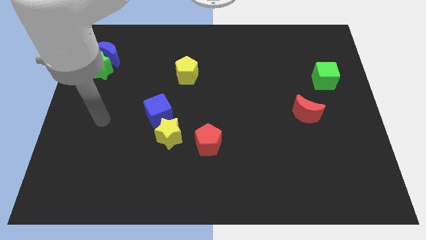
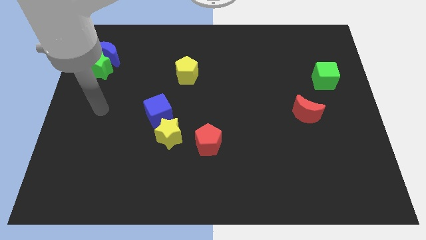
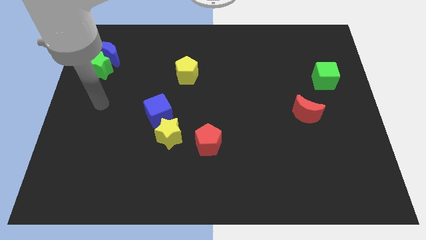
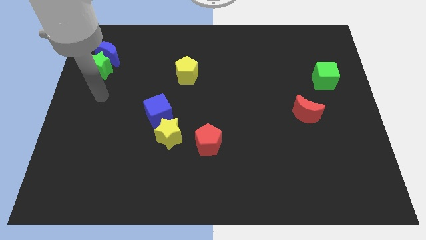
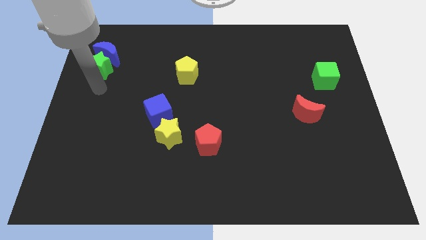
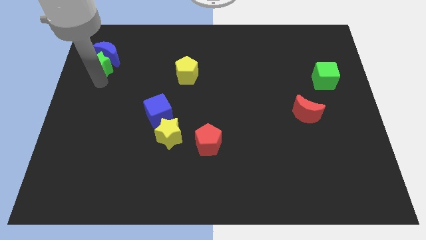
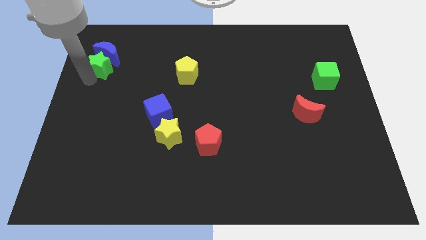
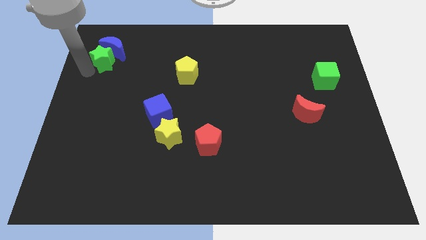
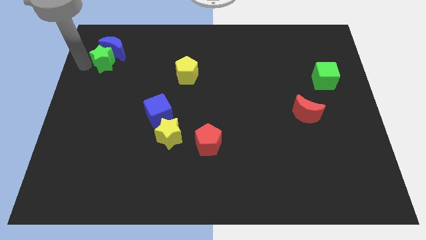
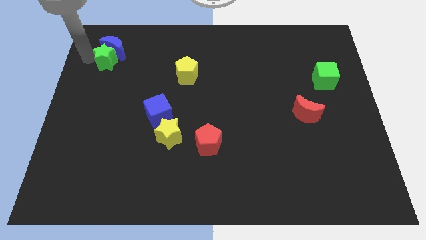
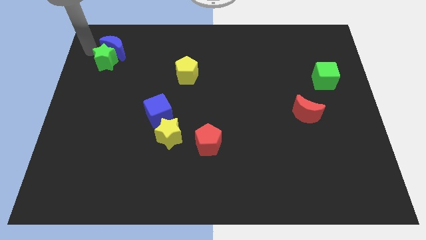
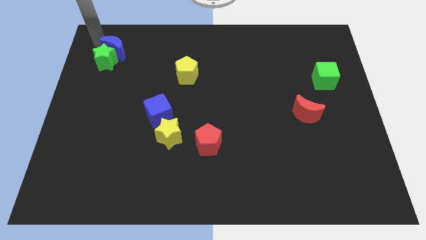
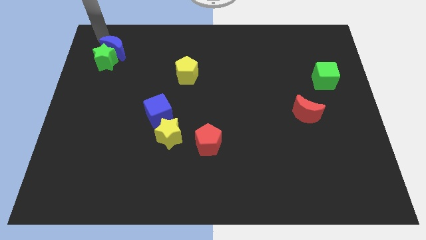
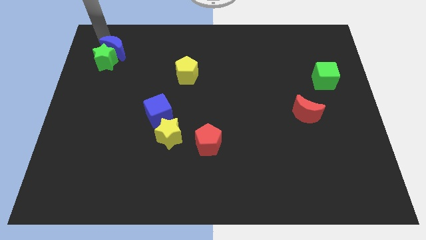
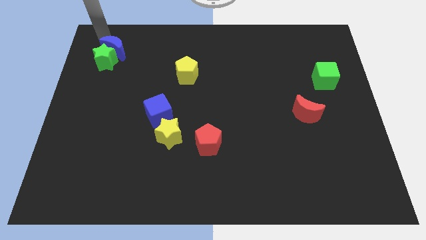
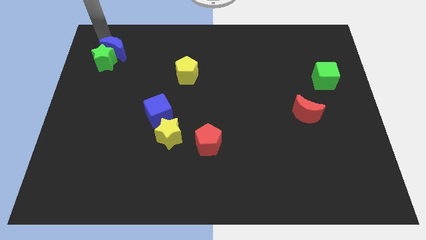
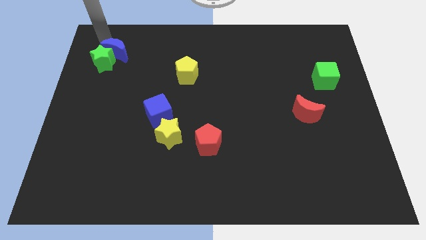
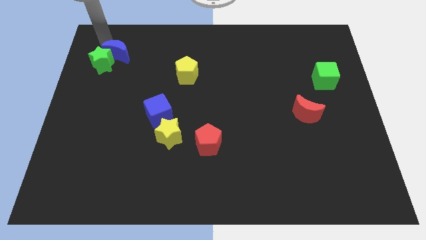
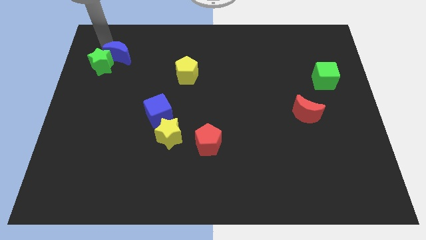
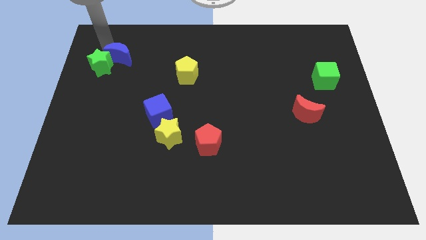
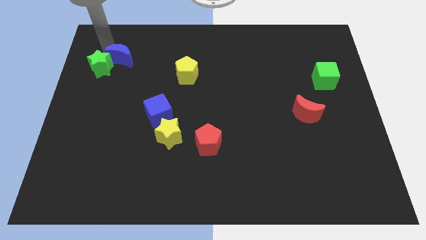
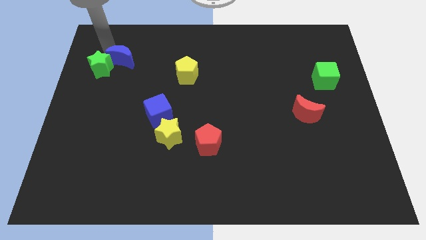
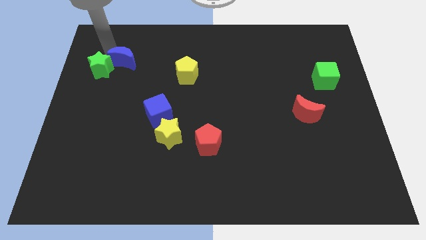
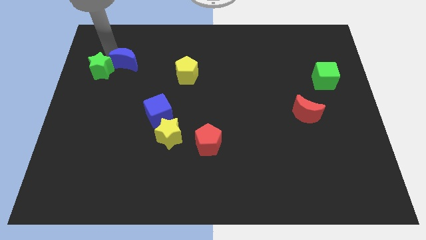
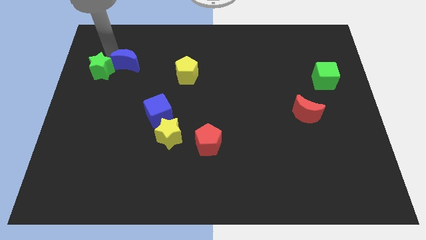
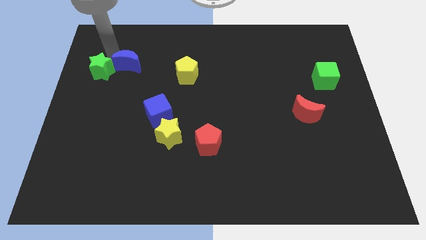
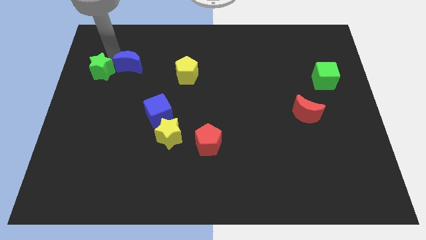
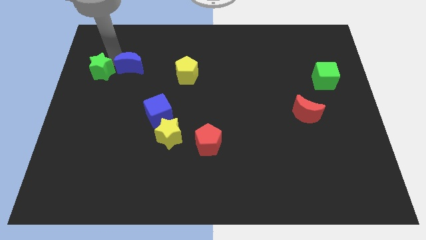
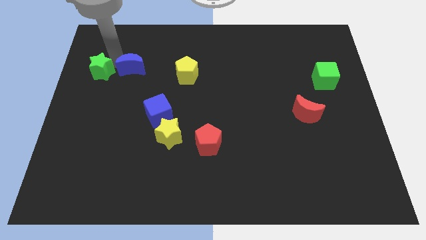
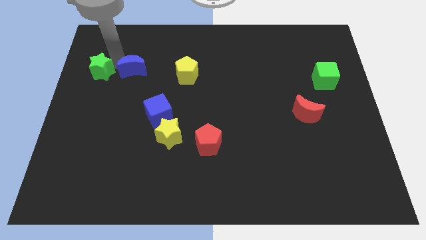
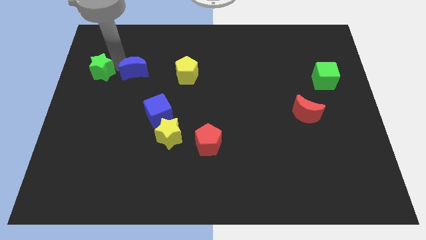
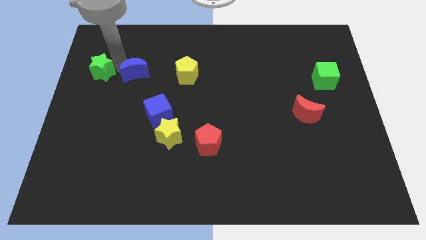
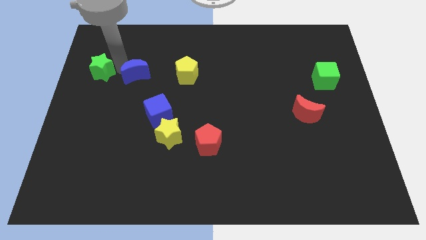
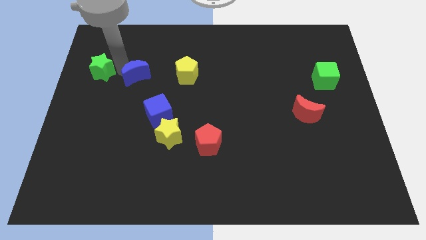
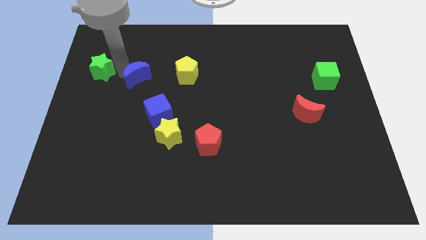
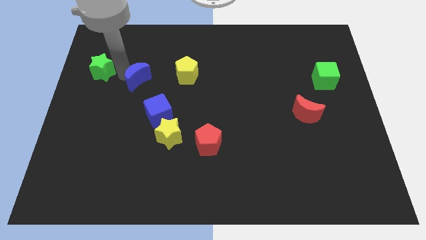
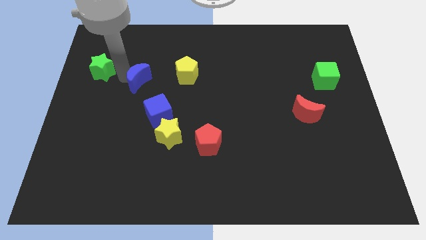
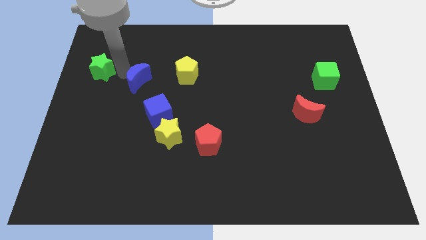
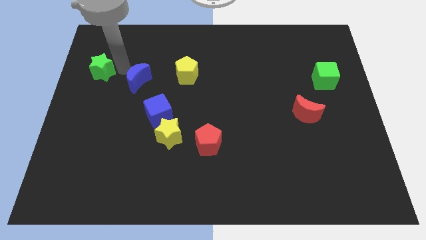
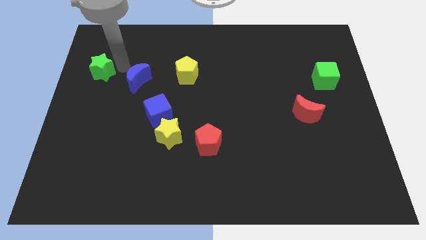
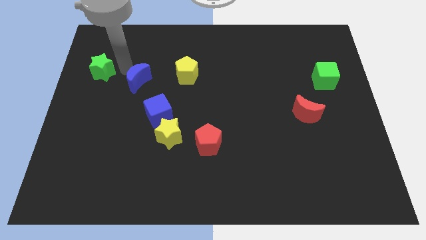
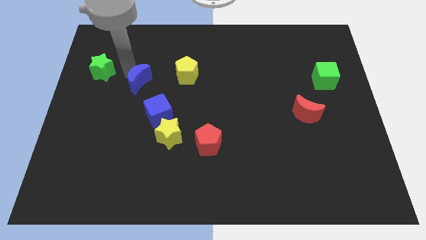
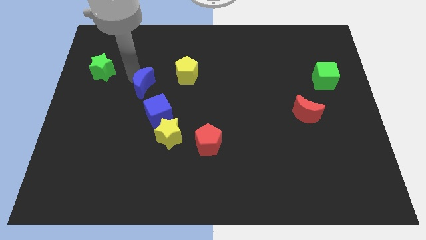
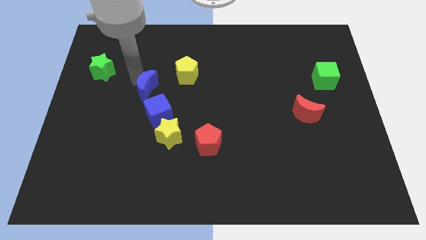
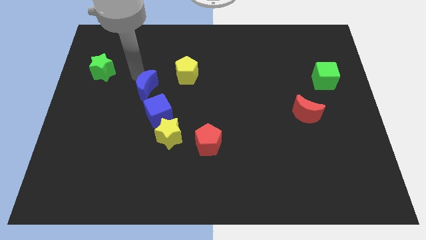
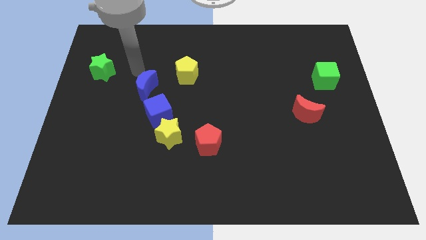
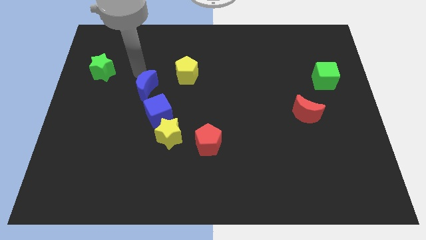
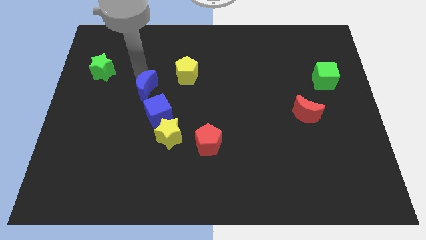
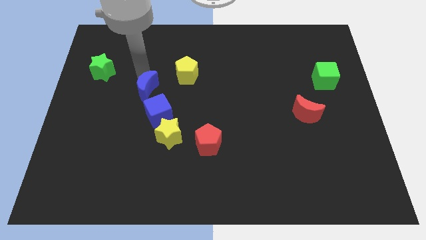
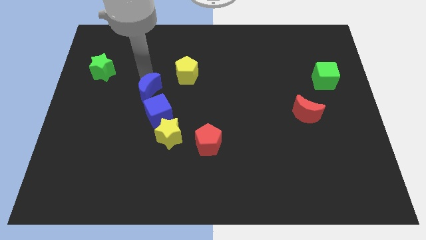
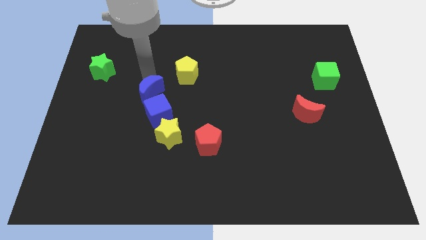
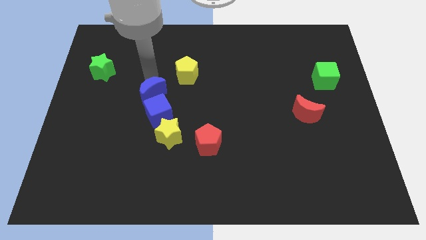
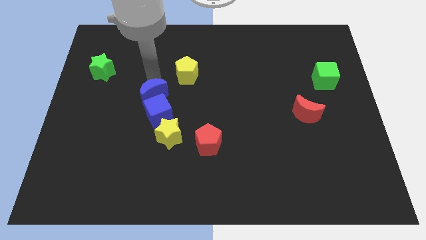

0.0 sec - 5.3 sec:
move the blue moon to the blue cube

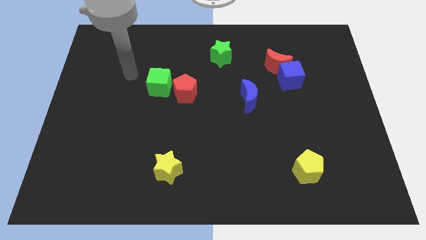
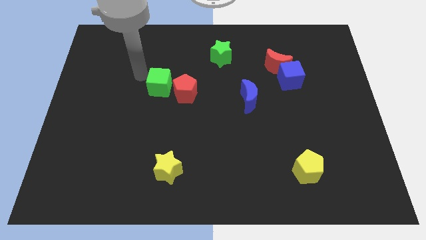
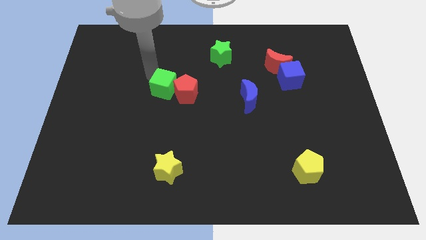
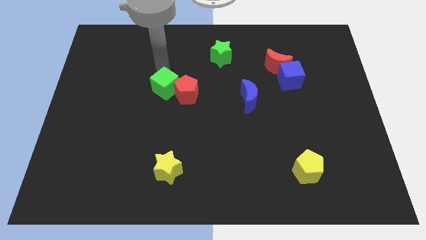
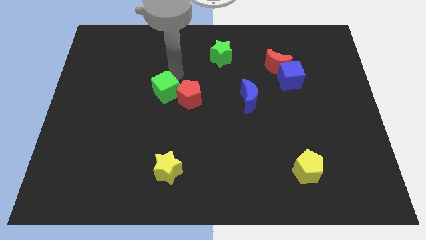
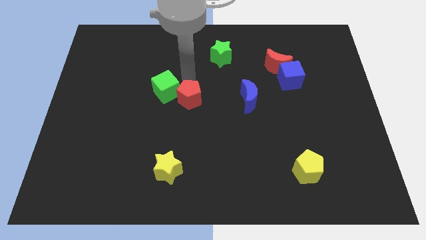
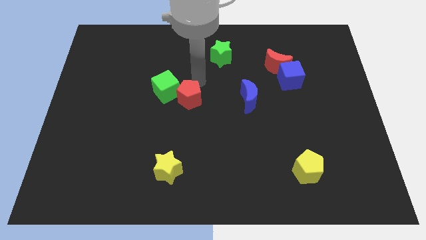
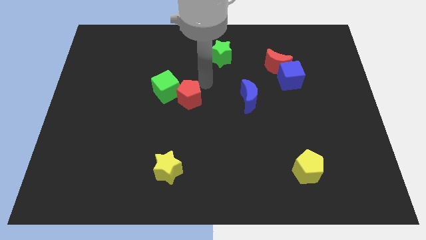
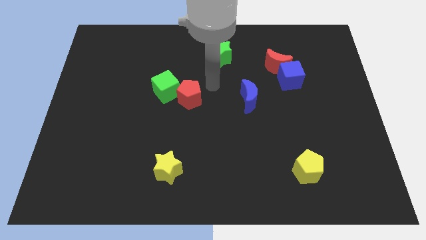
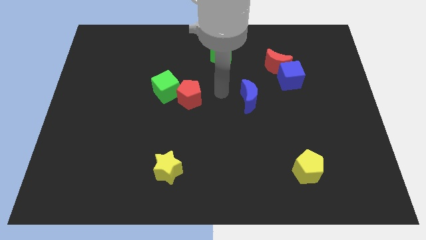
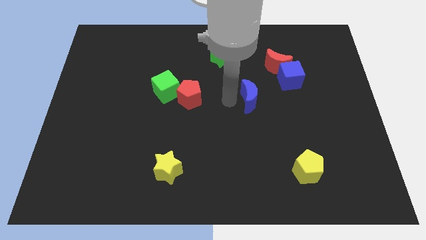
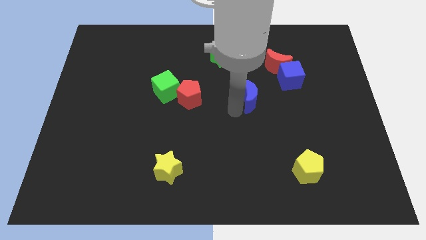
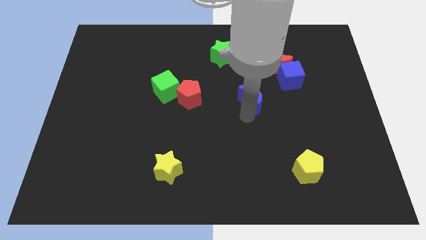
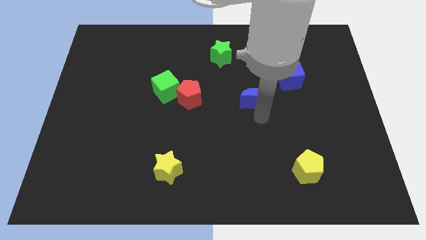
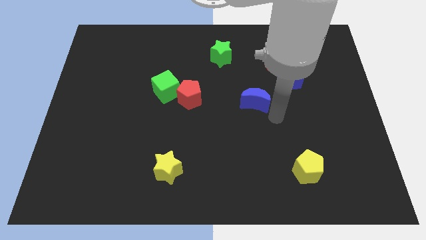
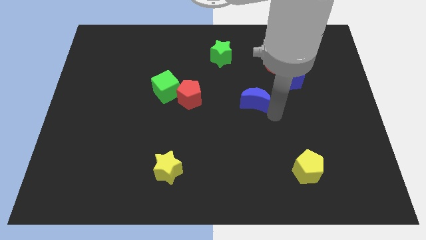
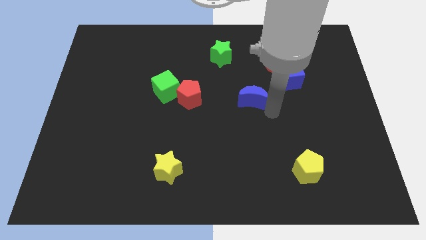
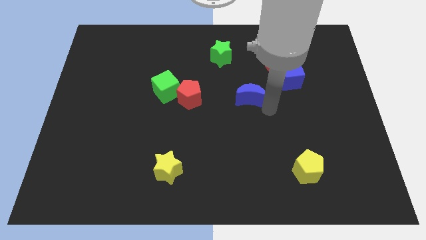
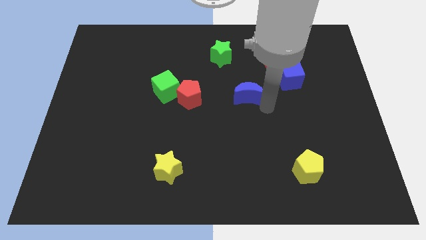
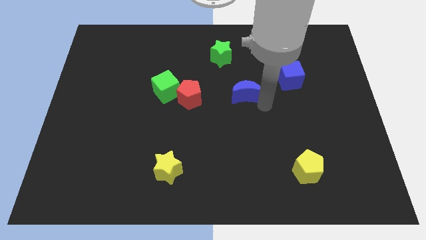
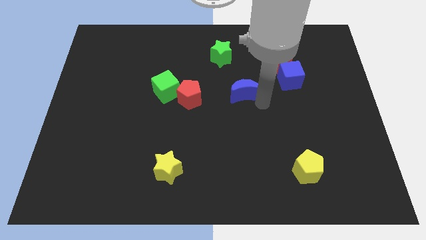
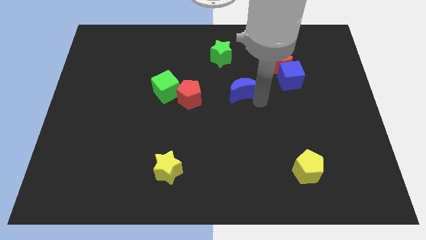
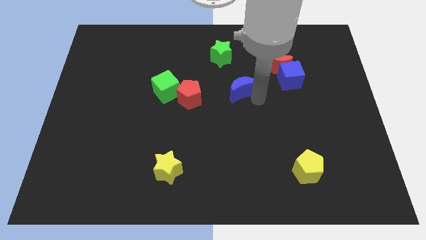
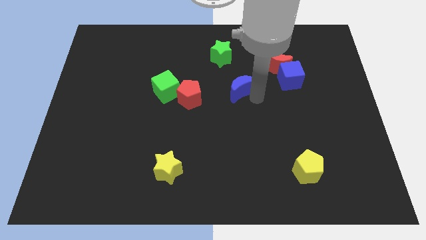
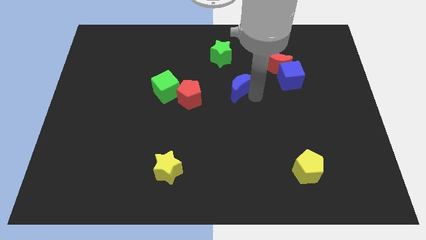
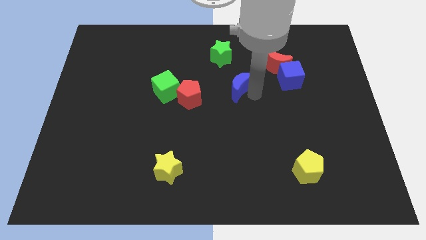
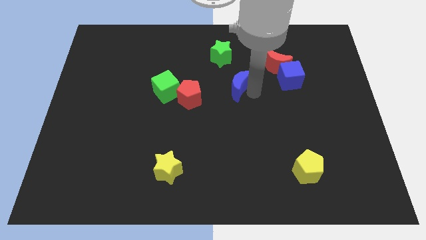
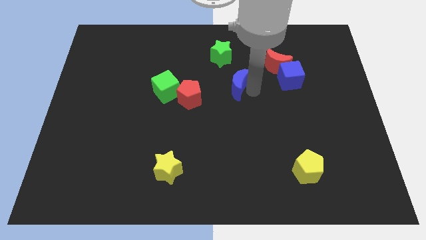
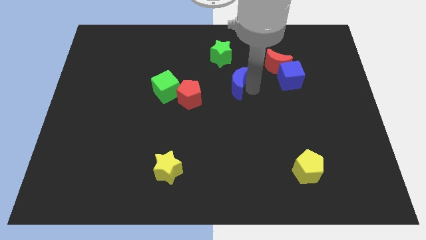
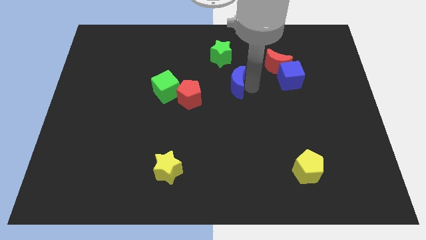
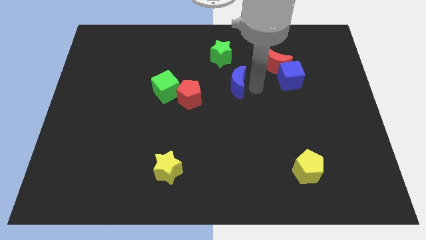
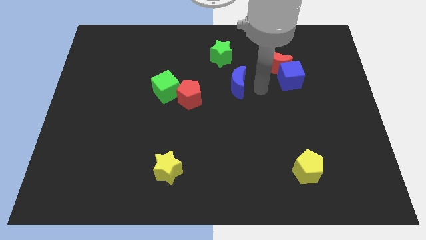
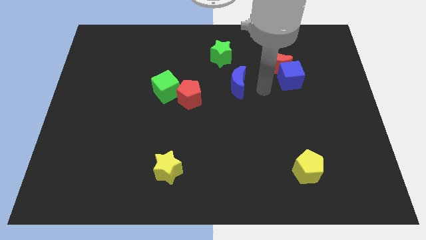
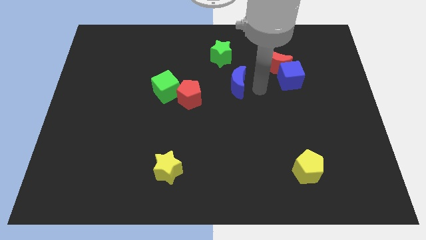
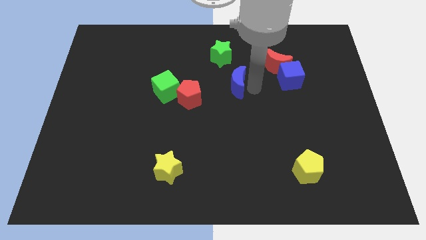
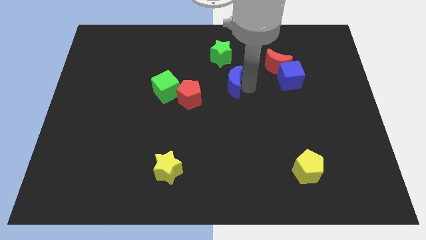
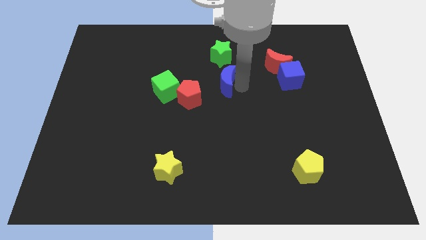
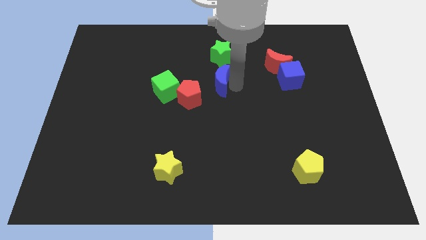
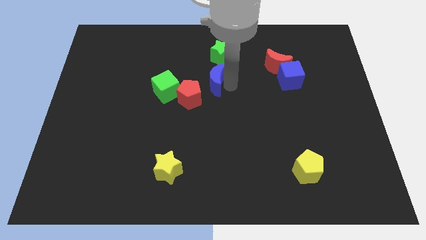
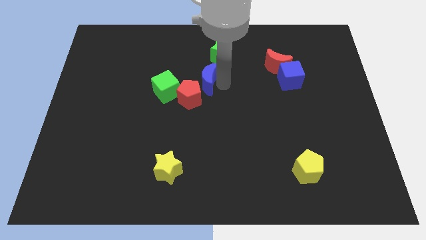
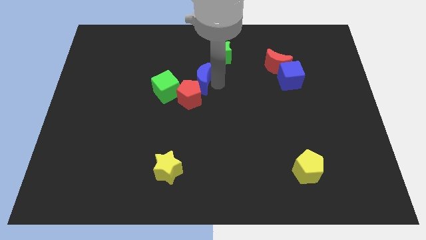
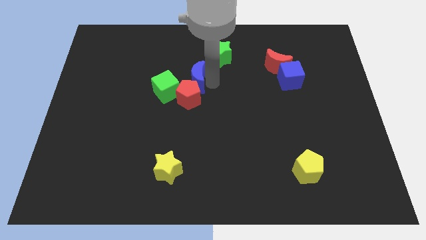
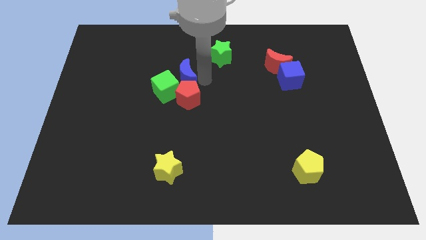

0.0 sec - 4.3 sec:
slide the blue moon next to the green cube
